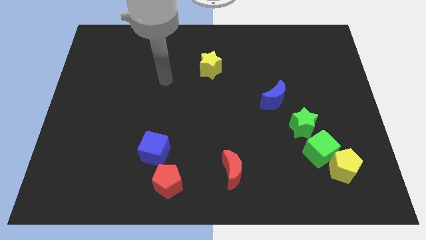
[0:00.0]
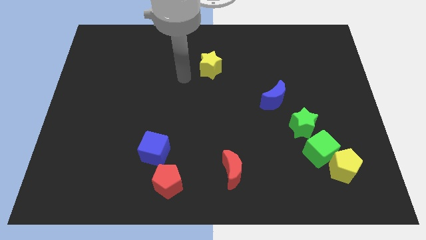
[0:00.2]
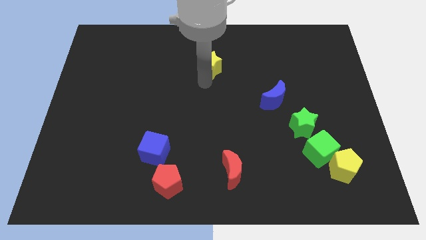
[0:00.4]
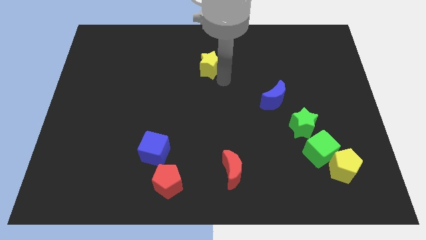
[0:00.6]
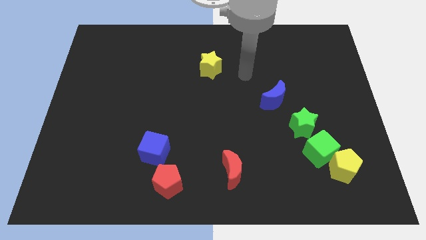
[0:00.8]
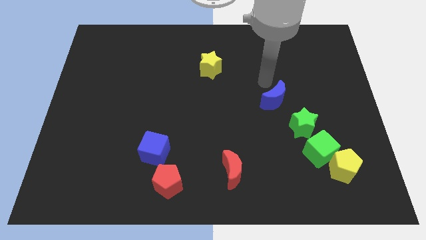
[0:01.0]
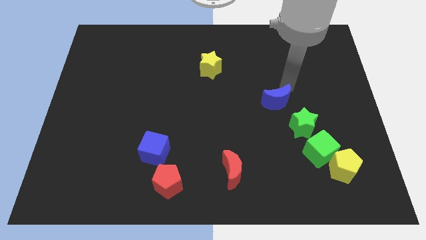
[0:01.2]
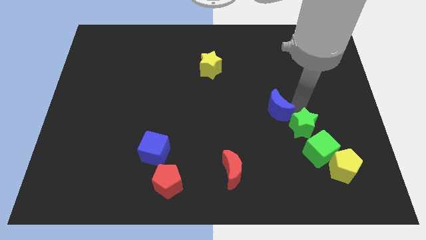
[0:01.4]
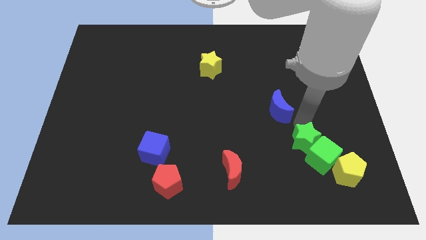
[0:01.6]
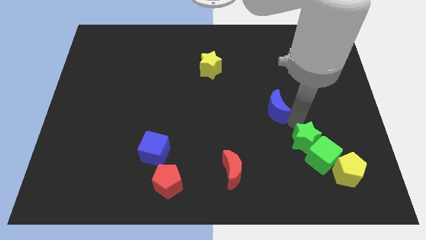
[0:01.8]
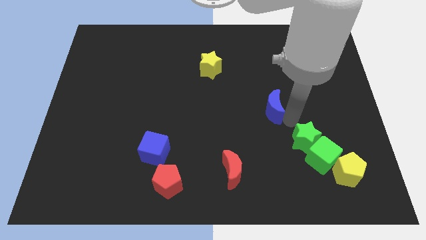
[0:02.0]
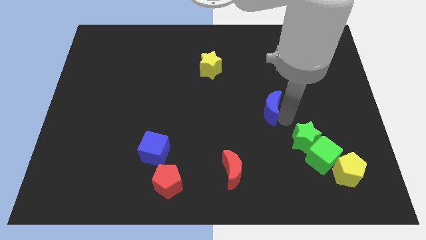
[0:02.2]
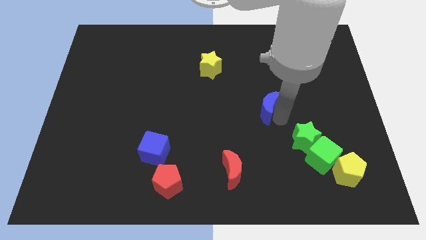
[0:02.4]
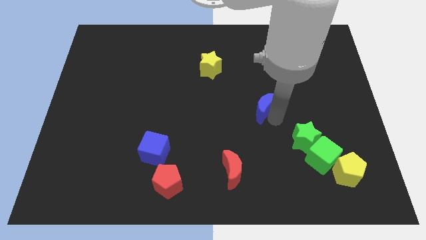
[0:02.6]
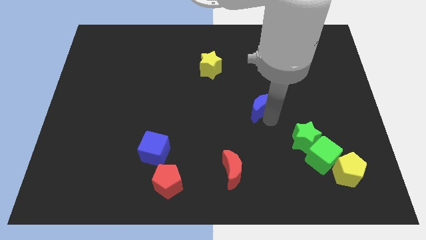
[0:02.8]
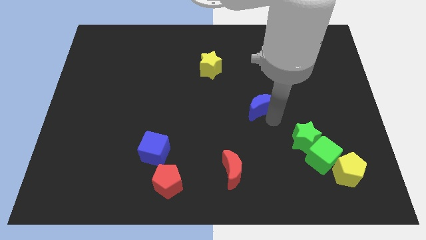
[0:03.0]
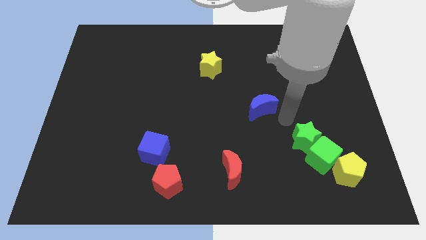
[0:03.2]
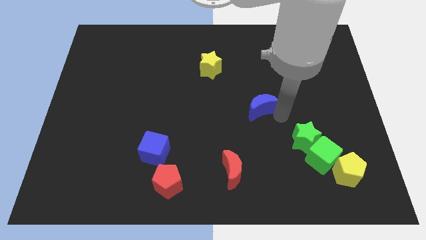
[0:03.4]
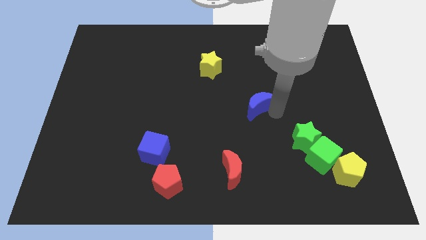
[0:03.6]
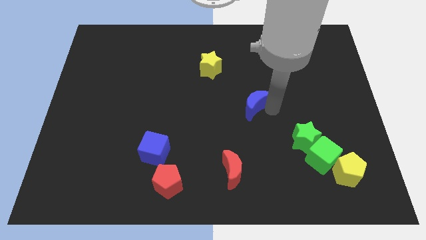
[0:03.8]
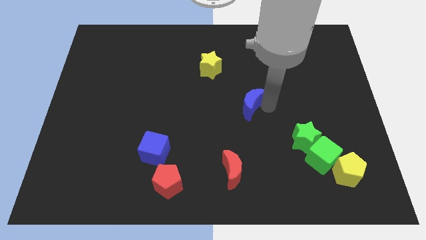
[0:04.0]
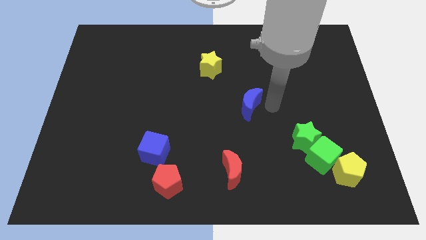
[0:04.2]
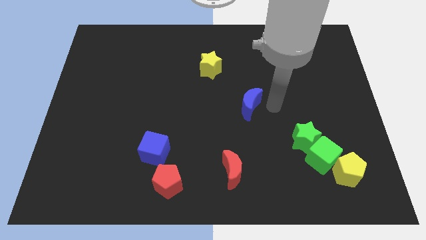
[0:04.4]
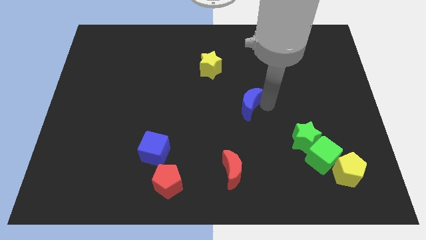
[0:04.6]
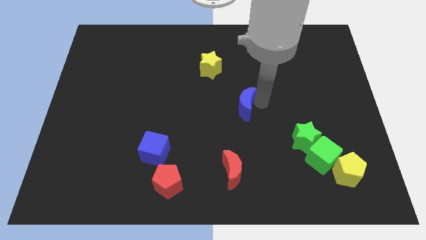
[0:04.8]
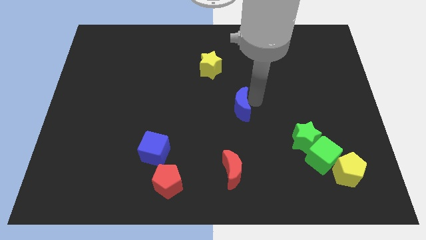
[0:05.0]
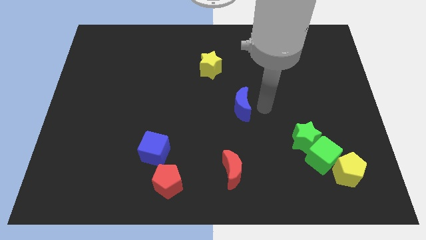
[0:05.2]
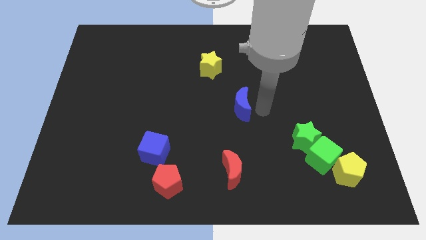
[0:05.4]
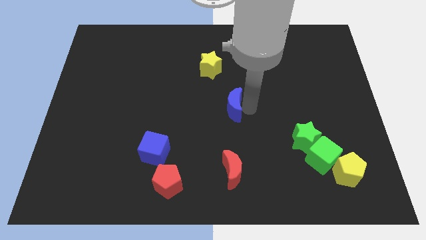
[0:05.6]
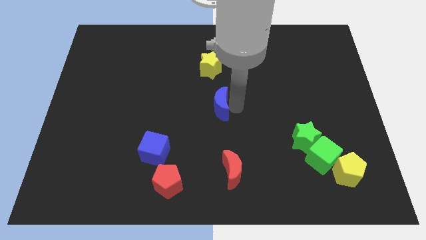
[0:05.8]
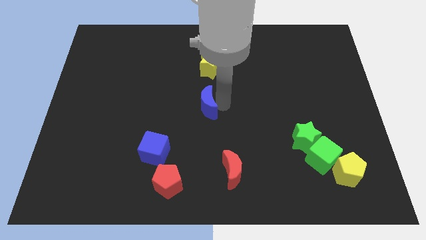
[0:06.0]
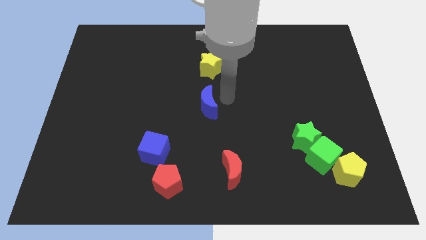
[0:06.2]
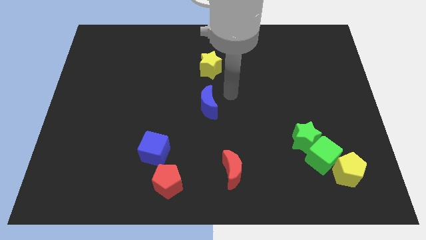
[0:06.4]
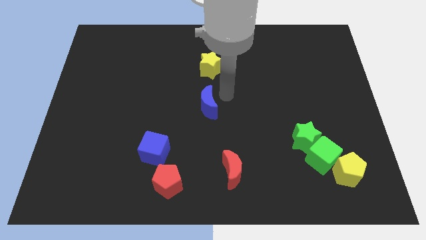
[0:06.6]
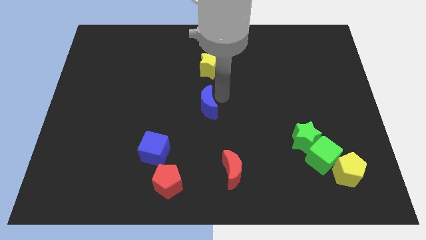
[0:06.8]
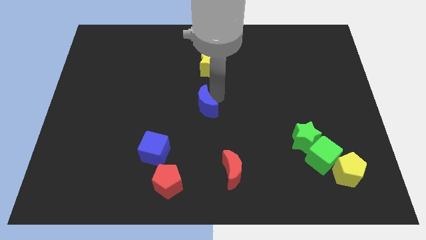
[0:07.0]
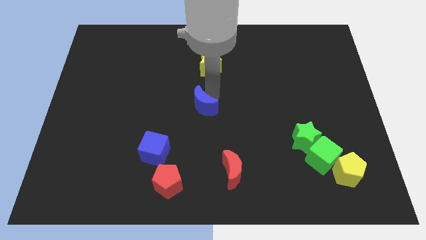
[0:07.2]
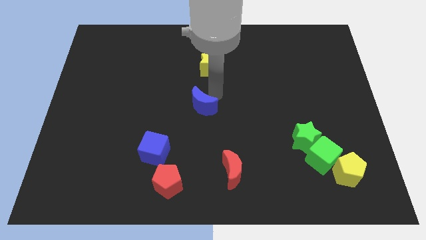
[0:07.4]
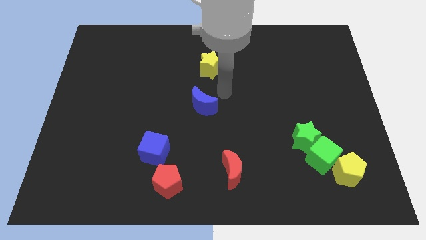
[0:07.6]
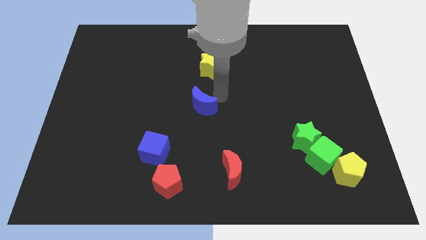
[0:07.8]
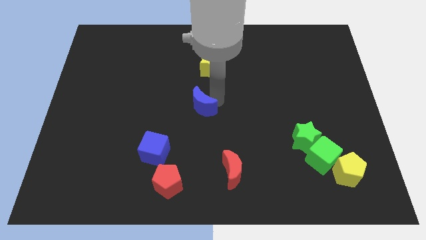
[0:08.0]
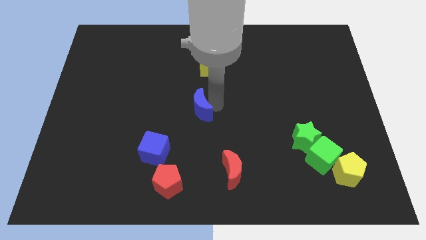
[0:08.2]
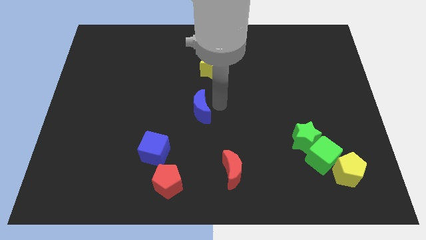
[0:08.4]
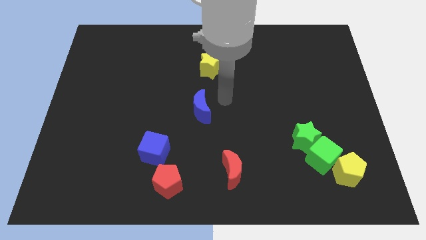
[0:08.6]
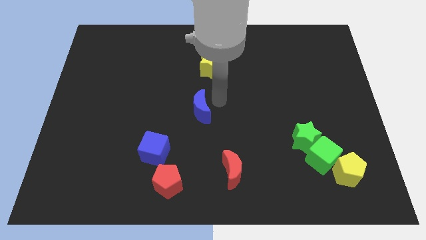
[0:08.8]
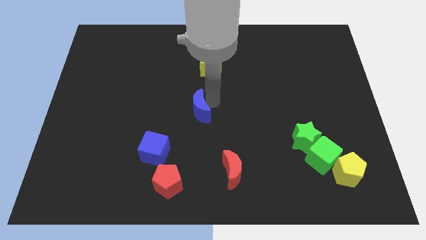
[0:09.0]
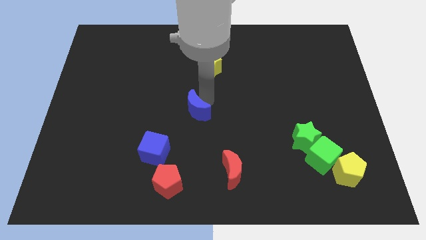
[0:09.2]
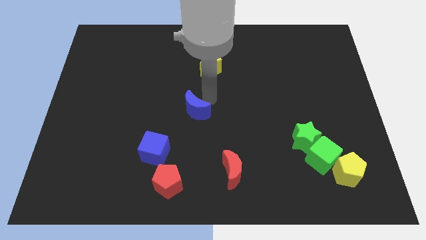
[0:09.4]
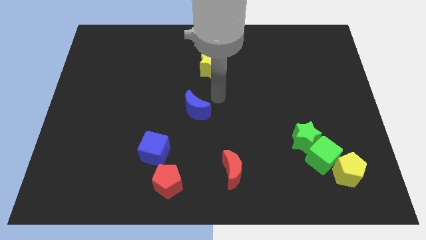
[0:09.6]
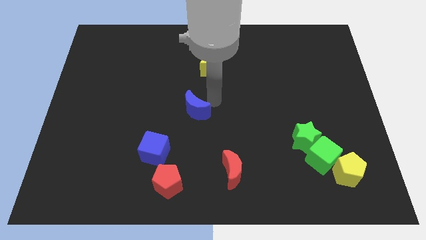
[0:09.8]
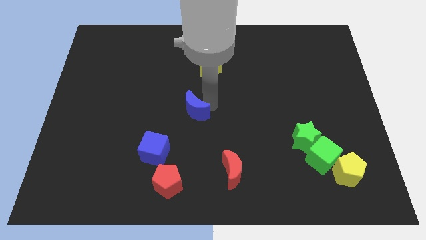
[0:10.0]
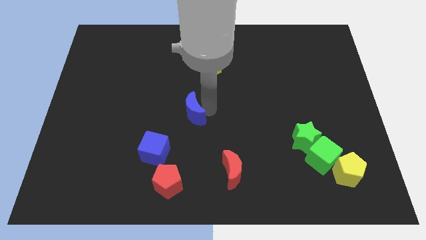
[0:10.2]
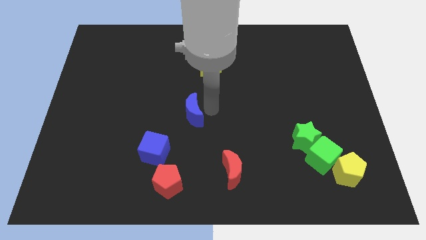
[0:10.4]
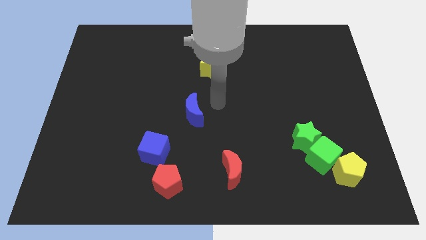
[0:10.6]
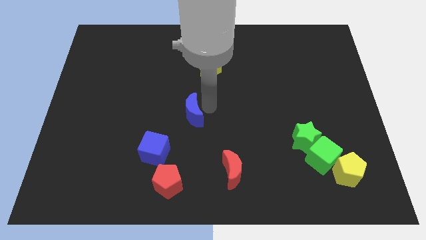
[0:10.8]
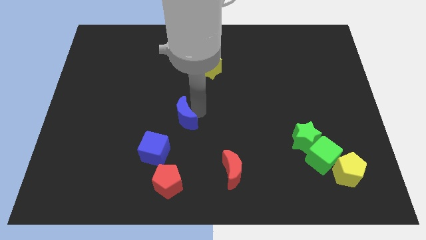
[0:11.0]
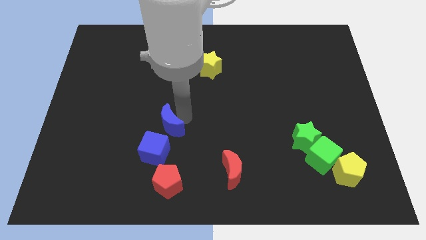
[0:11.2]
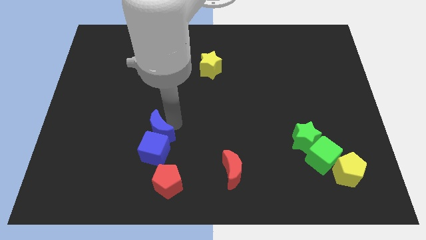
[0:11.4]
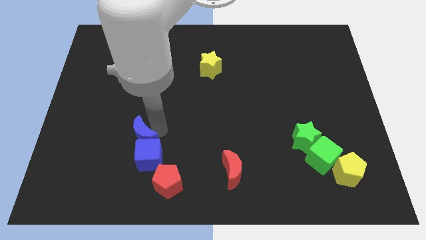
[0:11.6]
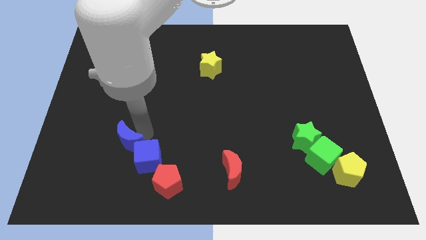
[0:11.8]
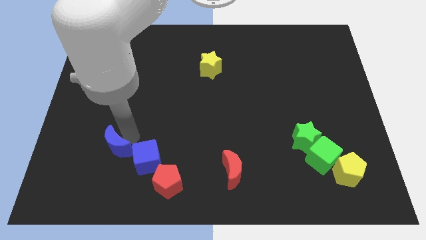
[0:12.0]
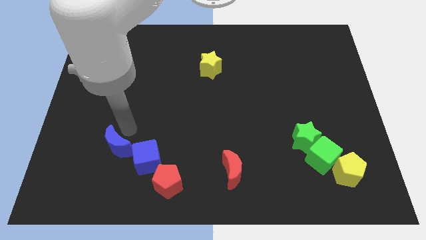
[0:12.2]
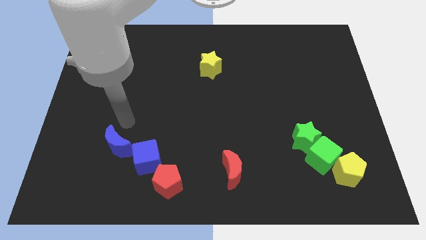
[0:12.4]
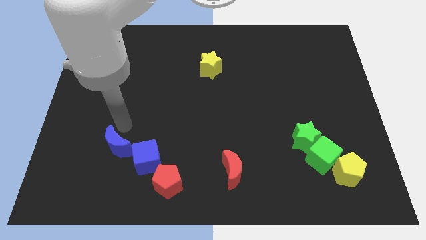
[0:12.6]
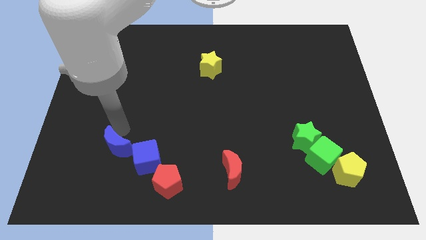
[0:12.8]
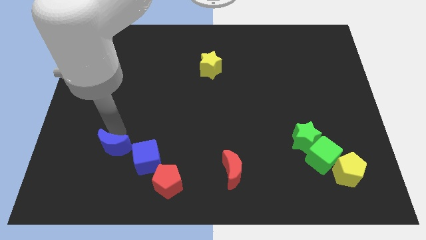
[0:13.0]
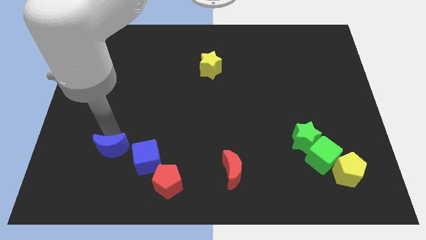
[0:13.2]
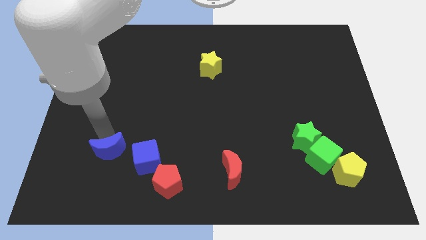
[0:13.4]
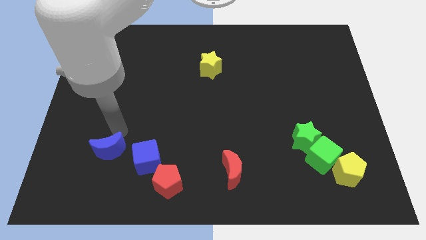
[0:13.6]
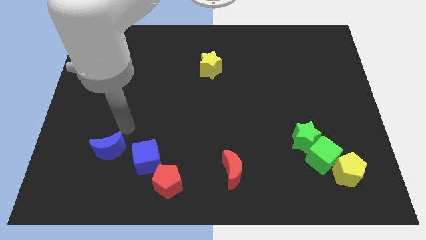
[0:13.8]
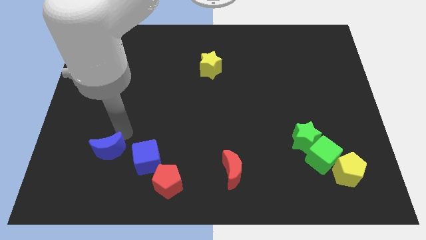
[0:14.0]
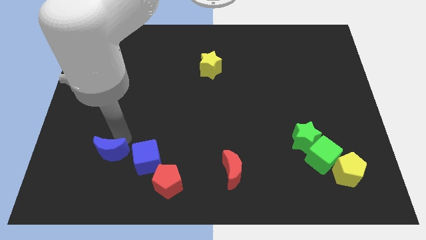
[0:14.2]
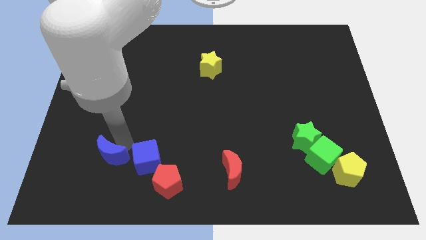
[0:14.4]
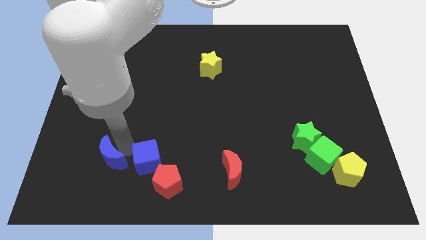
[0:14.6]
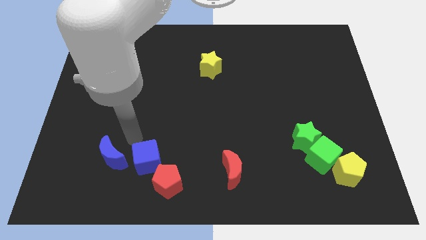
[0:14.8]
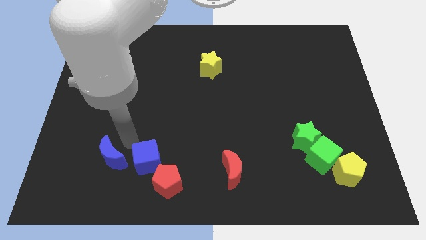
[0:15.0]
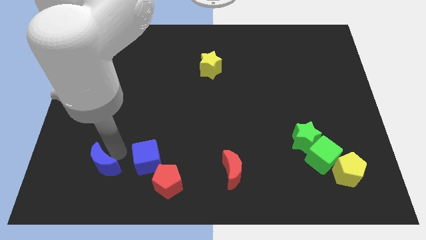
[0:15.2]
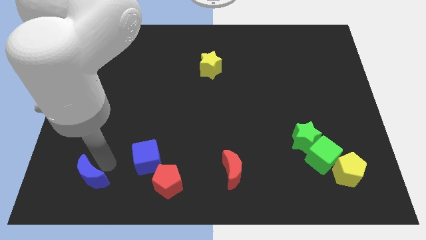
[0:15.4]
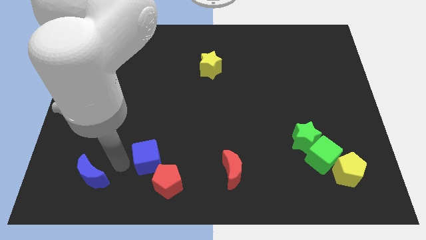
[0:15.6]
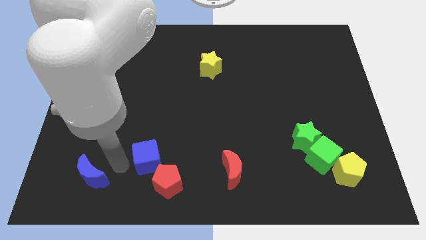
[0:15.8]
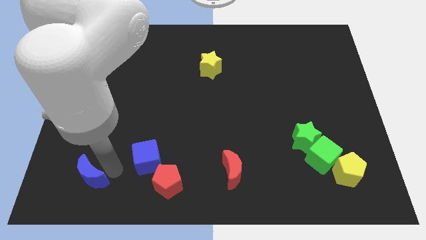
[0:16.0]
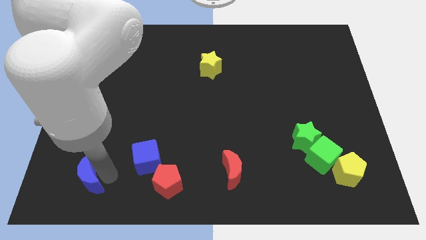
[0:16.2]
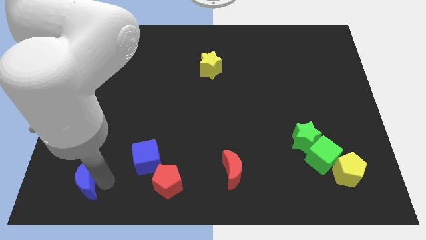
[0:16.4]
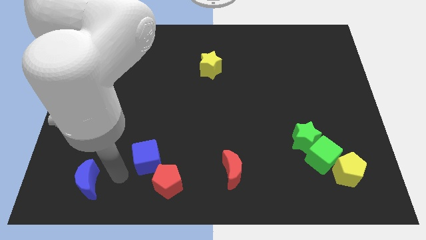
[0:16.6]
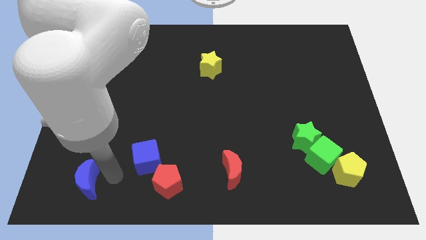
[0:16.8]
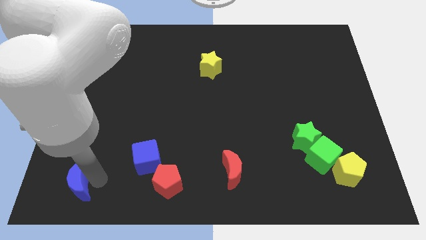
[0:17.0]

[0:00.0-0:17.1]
slide the blue moon to the lower left corner
